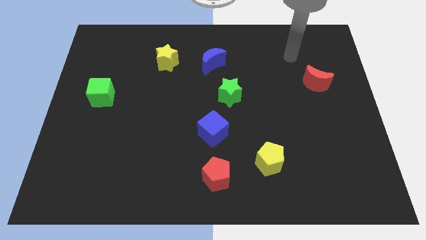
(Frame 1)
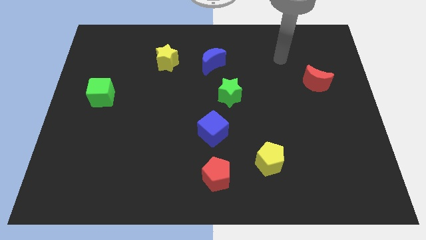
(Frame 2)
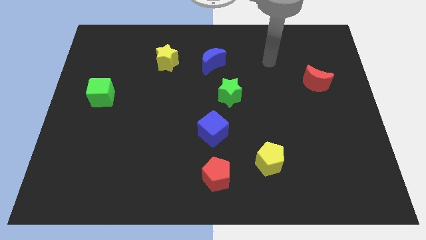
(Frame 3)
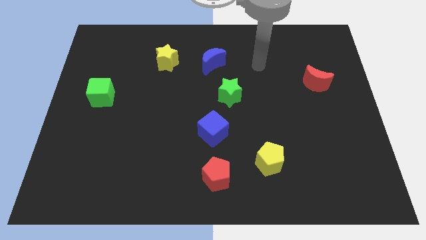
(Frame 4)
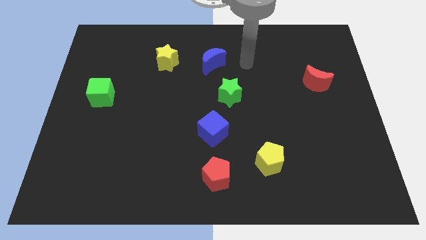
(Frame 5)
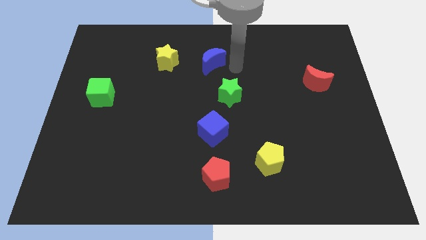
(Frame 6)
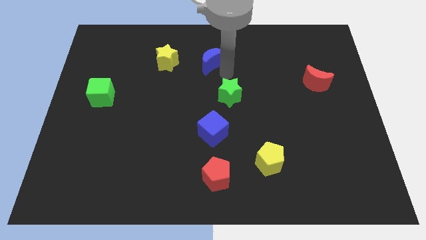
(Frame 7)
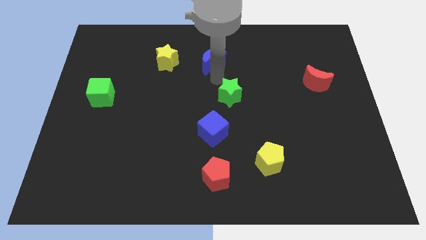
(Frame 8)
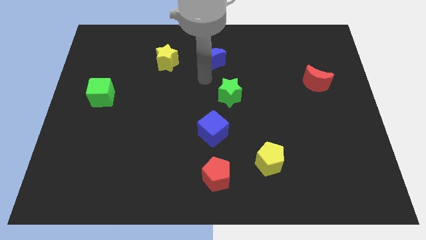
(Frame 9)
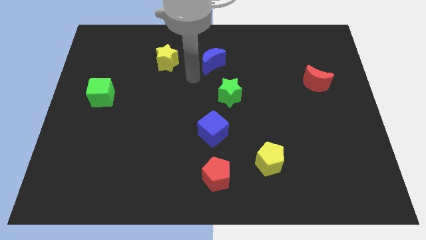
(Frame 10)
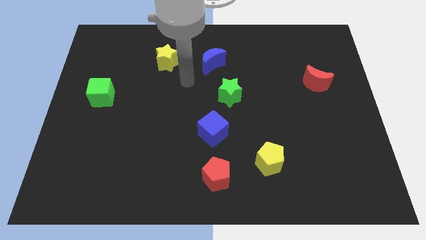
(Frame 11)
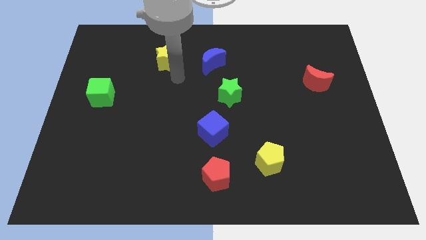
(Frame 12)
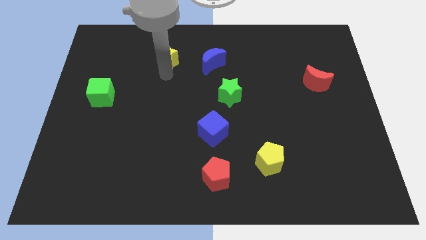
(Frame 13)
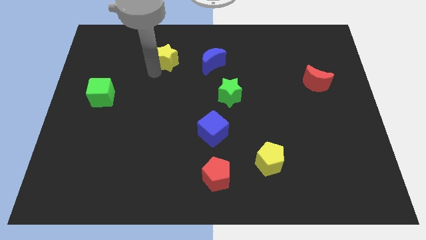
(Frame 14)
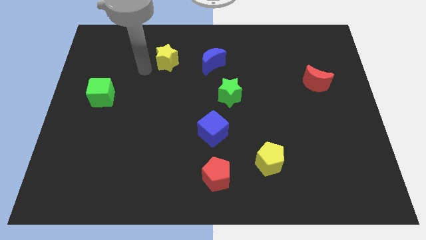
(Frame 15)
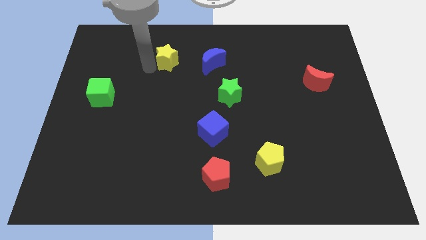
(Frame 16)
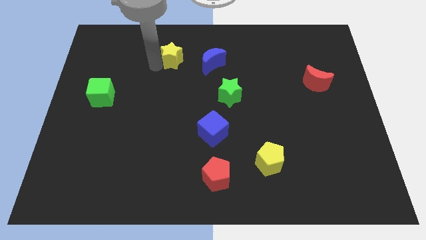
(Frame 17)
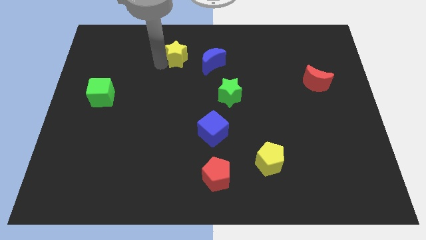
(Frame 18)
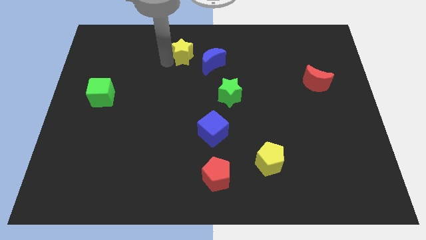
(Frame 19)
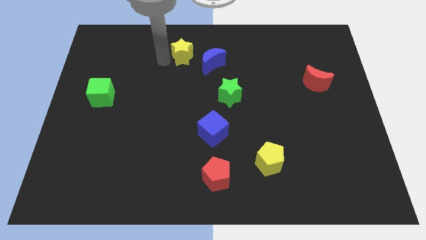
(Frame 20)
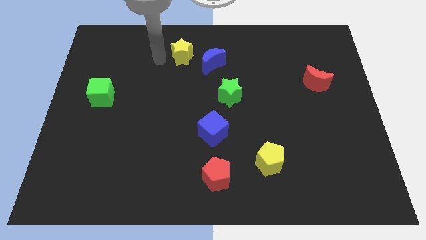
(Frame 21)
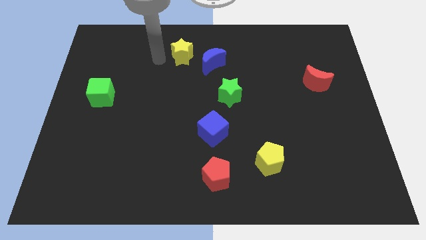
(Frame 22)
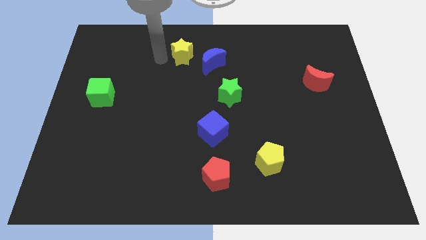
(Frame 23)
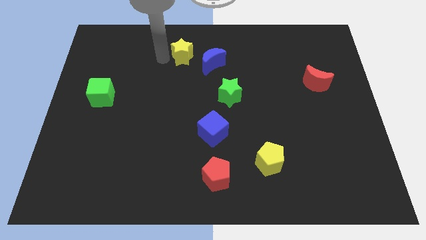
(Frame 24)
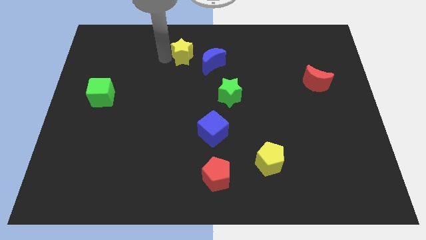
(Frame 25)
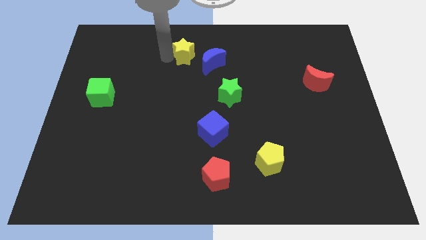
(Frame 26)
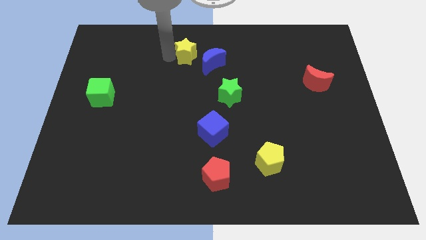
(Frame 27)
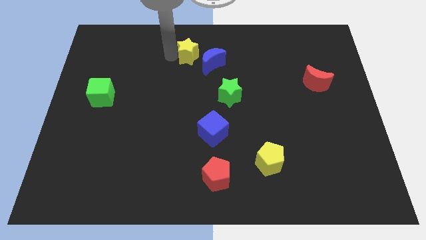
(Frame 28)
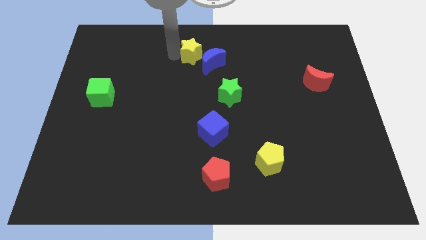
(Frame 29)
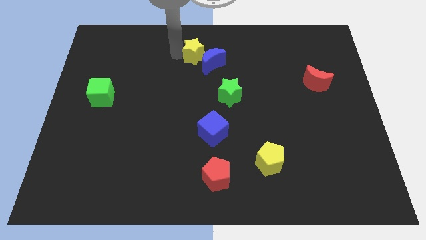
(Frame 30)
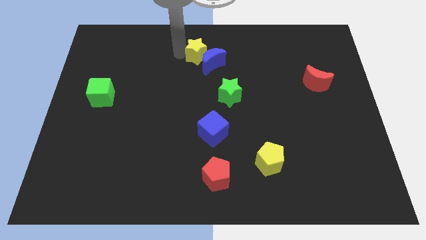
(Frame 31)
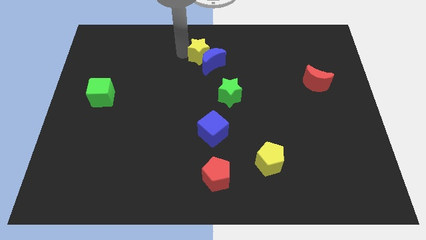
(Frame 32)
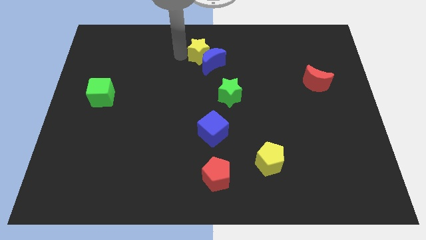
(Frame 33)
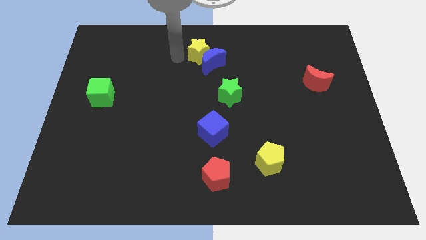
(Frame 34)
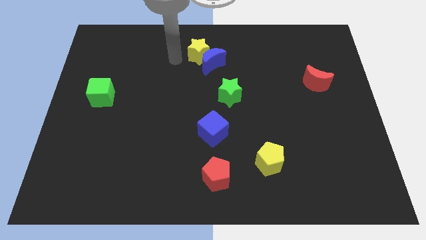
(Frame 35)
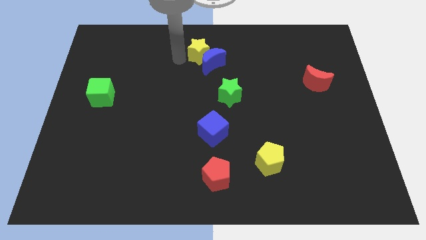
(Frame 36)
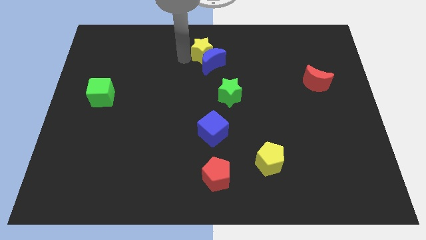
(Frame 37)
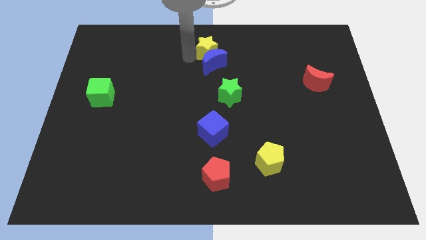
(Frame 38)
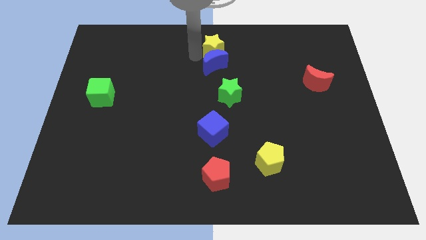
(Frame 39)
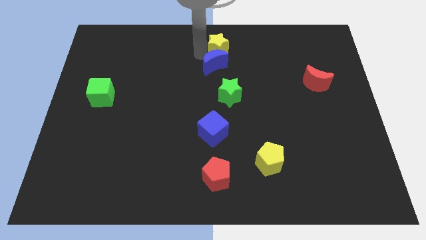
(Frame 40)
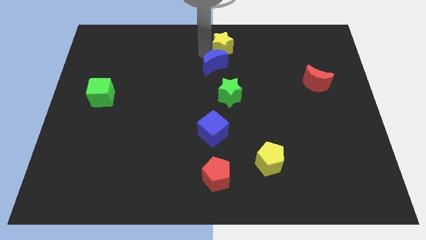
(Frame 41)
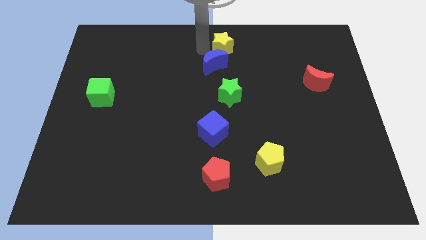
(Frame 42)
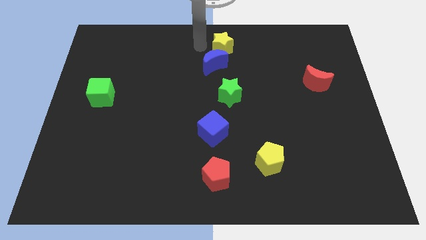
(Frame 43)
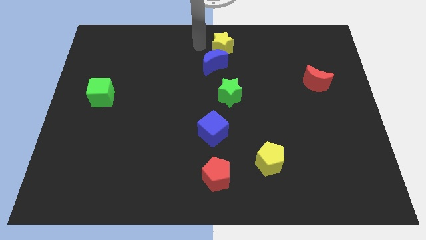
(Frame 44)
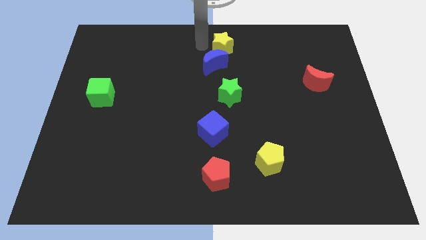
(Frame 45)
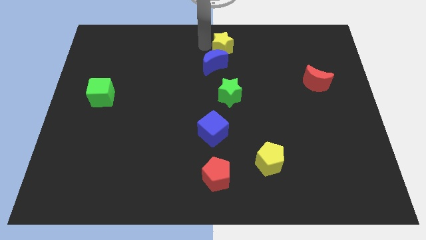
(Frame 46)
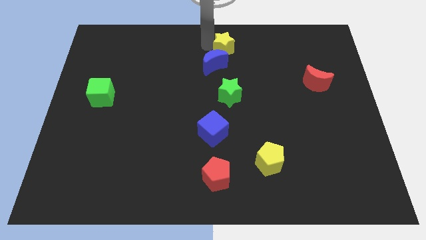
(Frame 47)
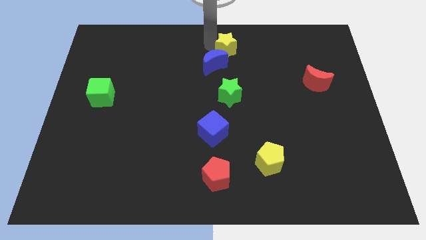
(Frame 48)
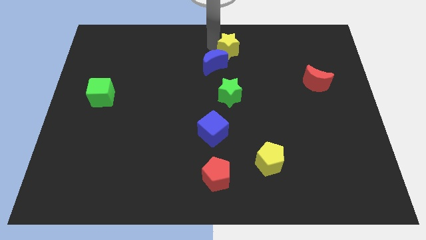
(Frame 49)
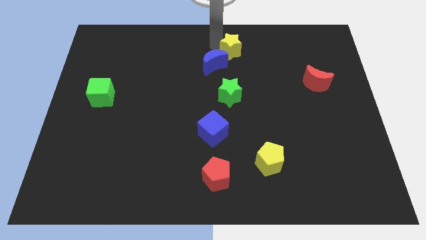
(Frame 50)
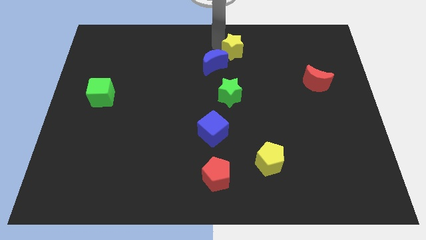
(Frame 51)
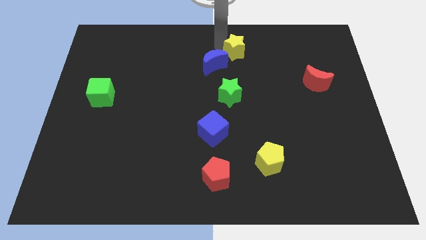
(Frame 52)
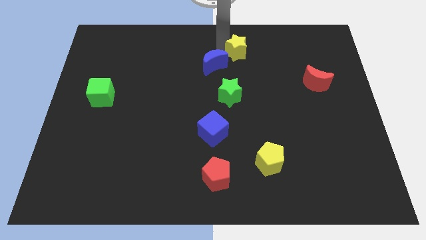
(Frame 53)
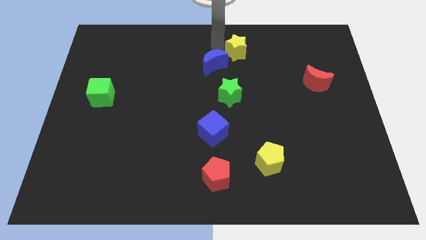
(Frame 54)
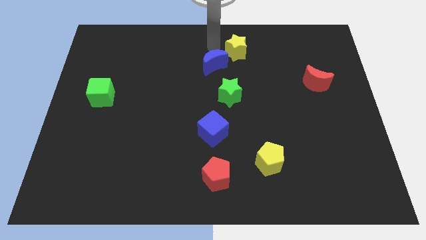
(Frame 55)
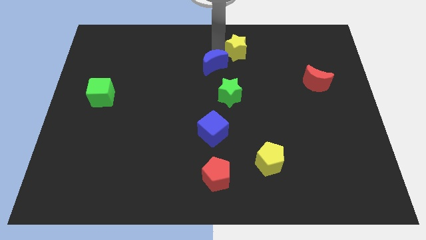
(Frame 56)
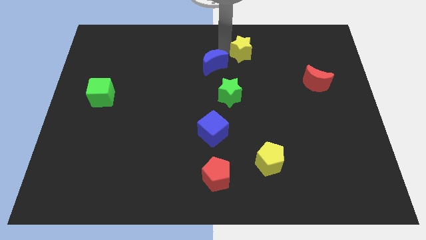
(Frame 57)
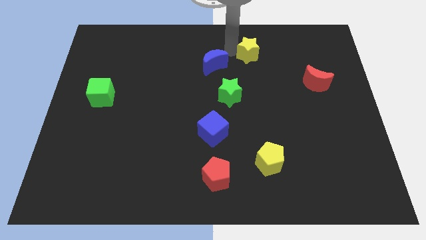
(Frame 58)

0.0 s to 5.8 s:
move the yellow star right

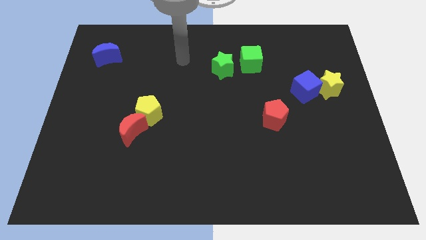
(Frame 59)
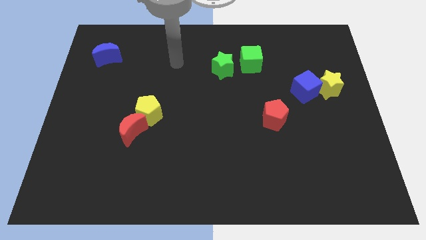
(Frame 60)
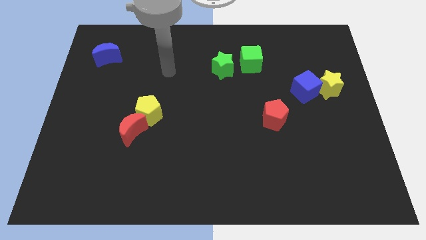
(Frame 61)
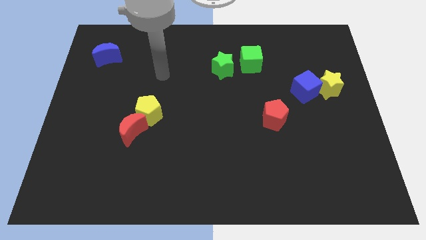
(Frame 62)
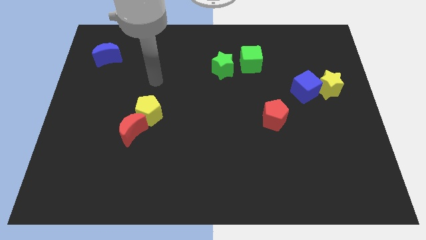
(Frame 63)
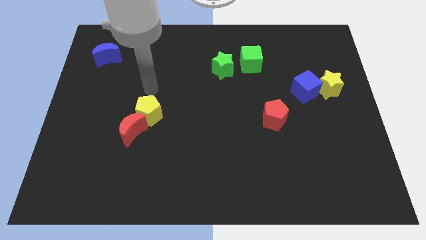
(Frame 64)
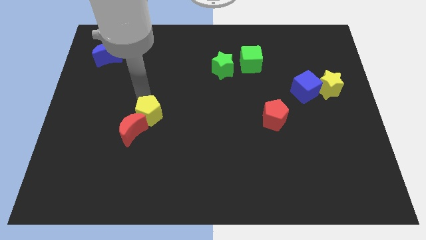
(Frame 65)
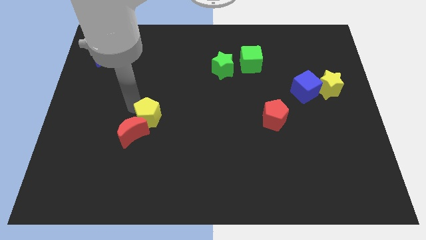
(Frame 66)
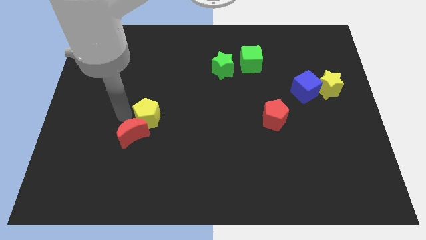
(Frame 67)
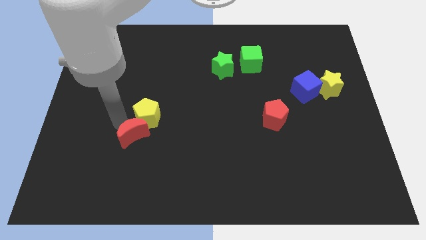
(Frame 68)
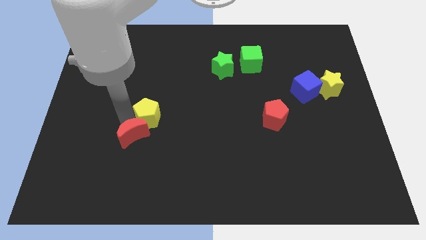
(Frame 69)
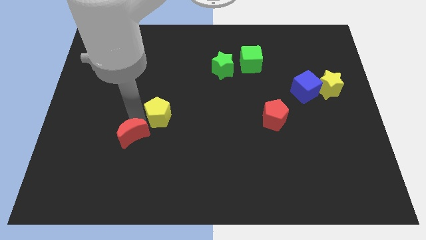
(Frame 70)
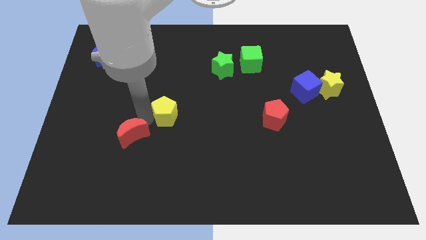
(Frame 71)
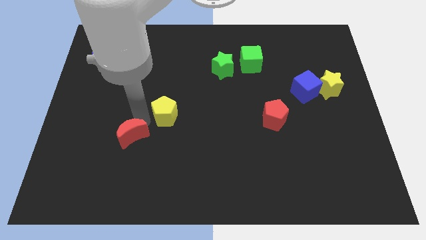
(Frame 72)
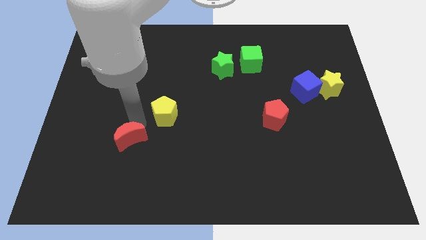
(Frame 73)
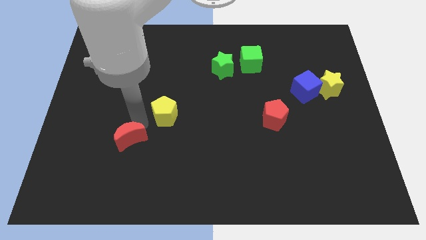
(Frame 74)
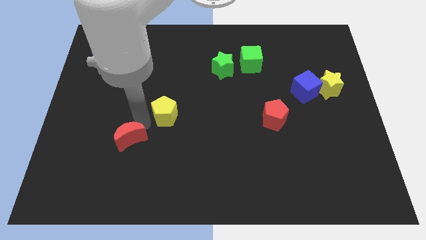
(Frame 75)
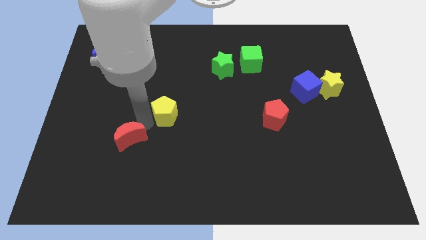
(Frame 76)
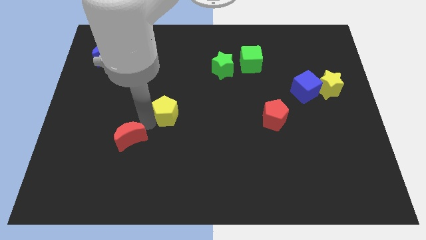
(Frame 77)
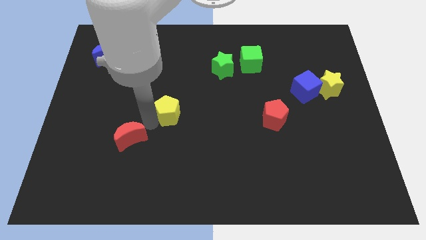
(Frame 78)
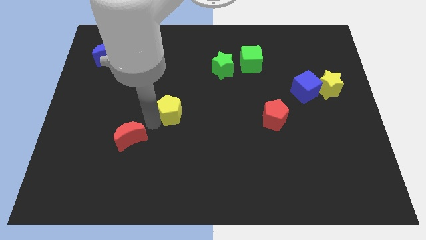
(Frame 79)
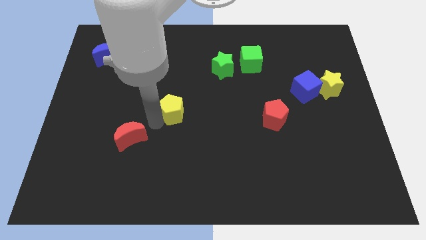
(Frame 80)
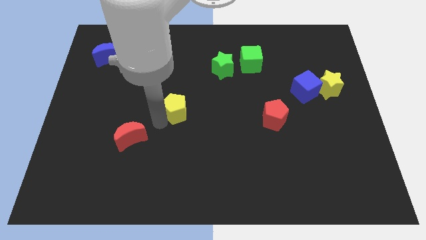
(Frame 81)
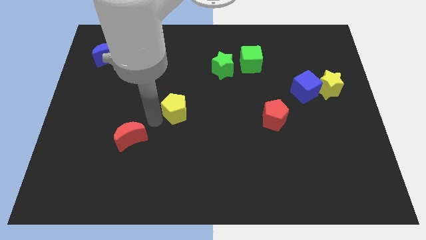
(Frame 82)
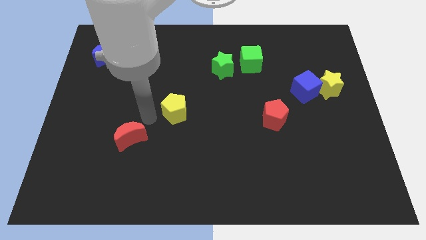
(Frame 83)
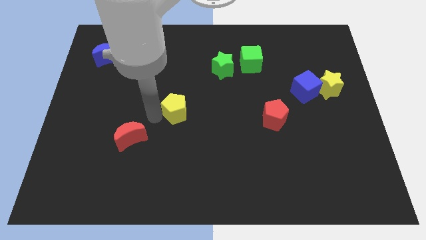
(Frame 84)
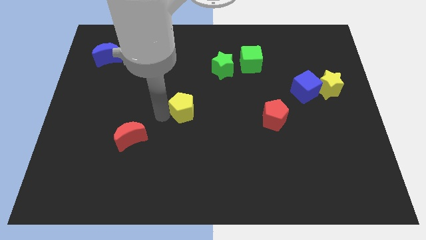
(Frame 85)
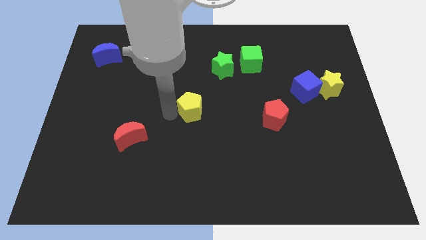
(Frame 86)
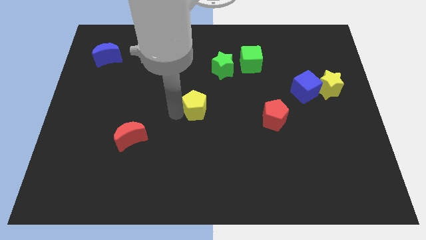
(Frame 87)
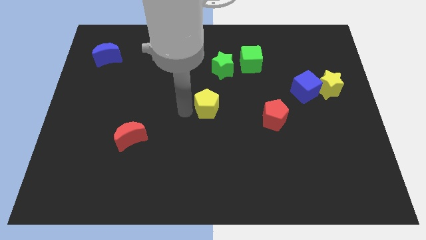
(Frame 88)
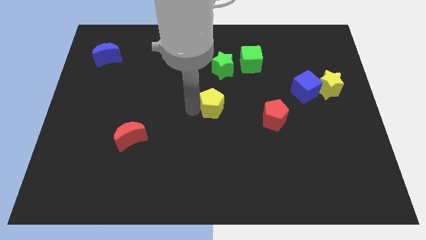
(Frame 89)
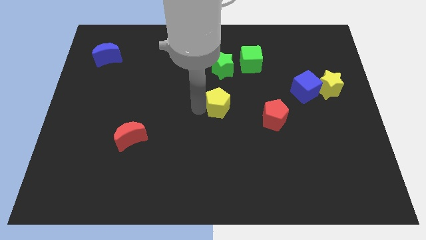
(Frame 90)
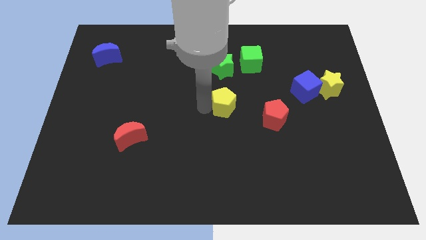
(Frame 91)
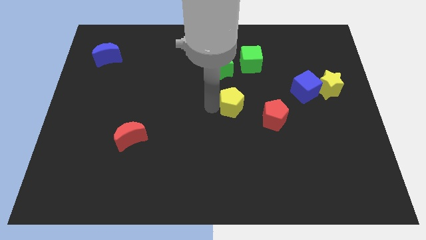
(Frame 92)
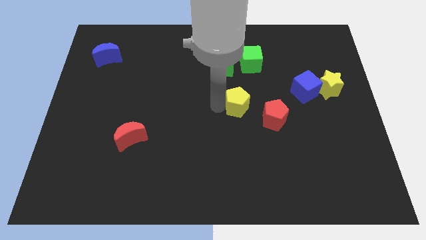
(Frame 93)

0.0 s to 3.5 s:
push the yellow pentagon to the right
